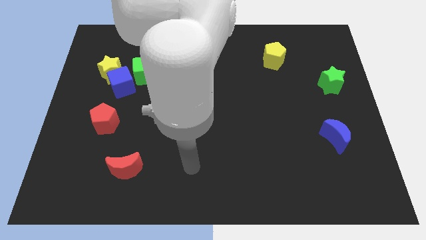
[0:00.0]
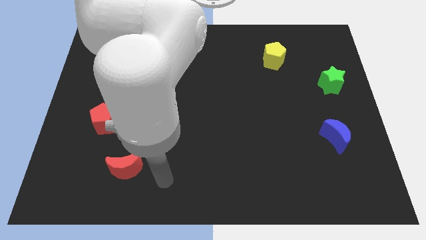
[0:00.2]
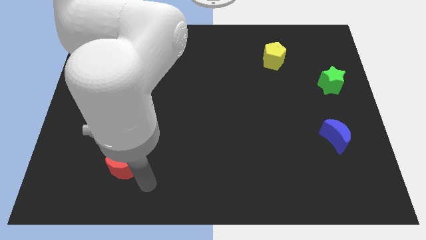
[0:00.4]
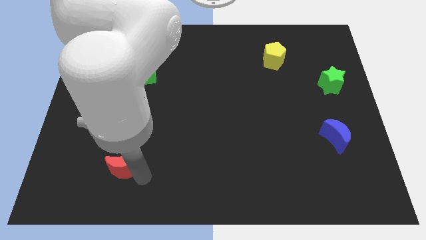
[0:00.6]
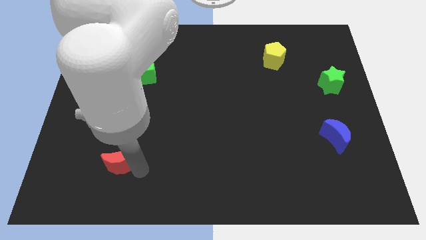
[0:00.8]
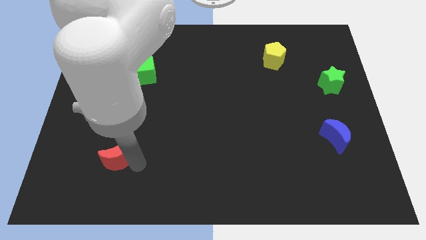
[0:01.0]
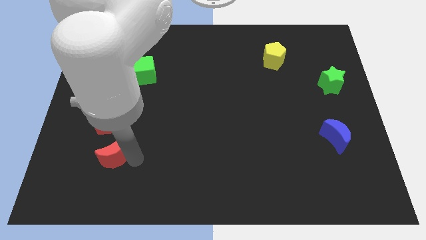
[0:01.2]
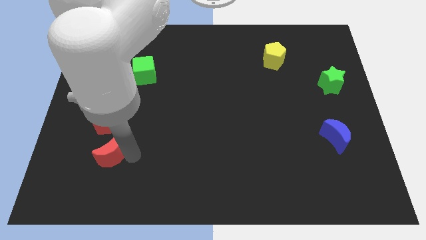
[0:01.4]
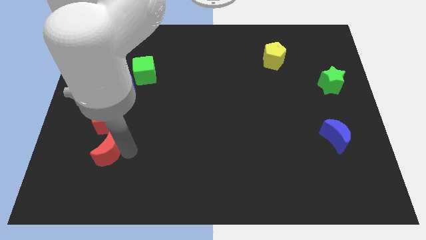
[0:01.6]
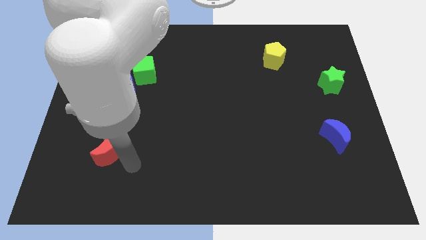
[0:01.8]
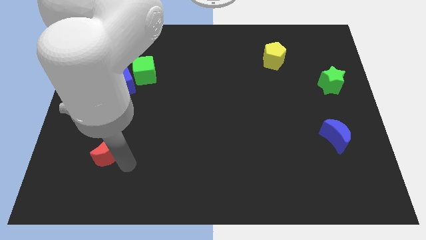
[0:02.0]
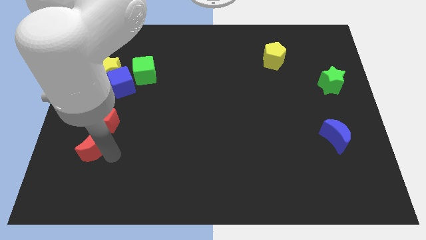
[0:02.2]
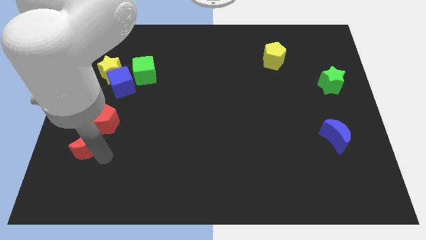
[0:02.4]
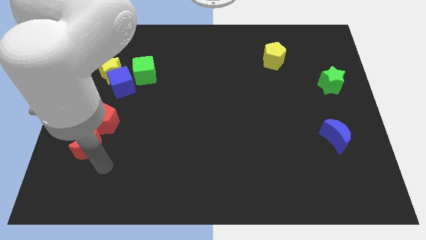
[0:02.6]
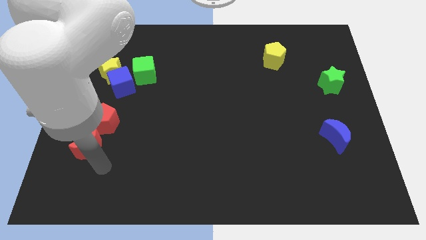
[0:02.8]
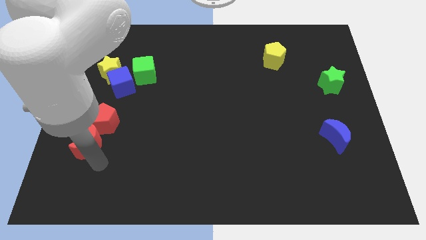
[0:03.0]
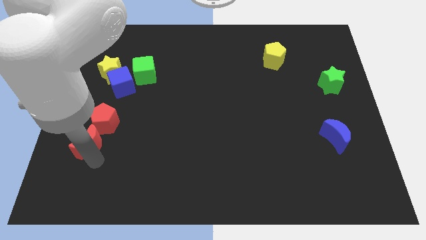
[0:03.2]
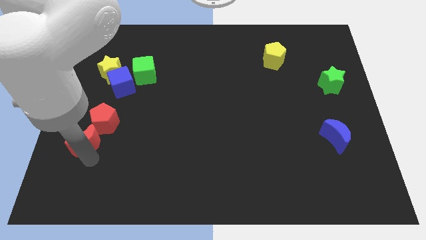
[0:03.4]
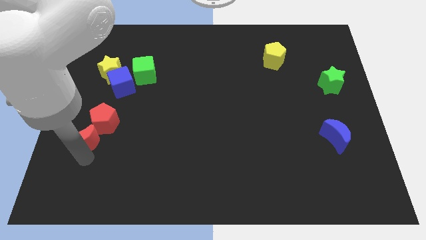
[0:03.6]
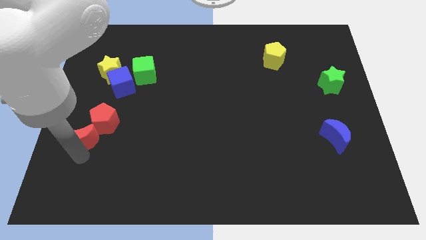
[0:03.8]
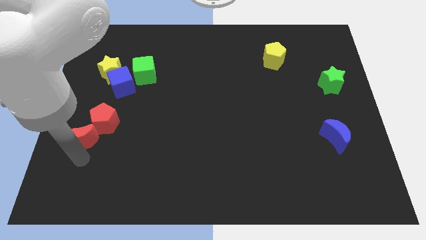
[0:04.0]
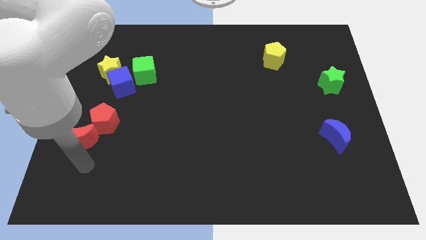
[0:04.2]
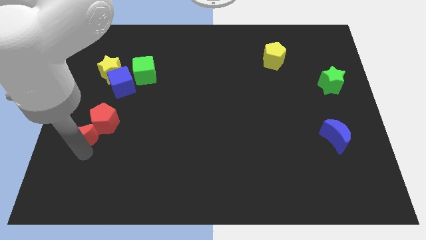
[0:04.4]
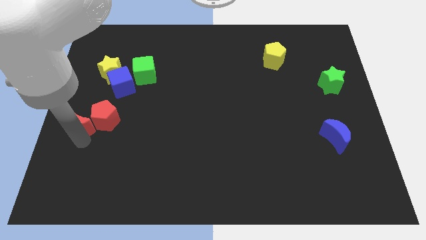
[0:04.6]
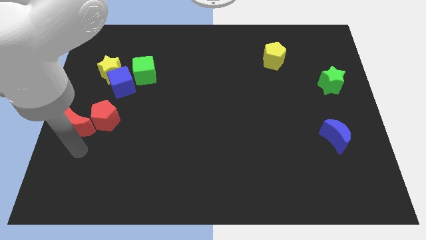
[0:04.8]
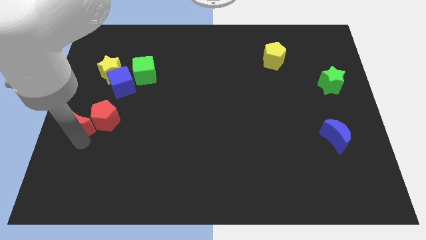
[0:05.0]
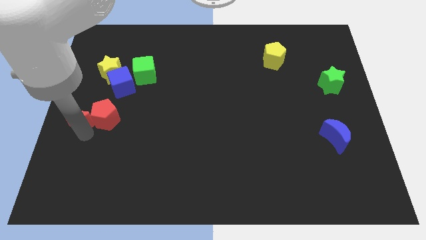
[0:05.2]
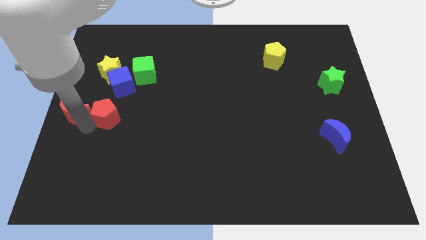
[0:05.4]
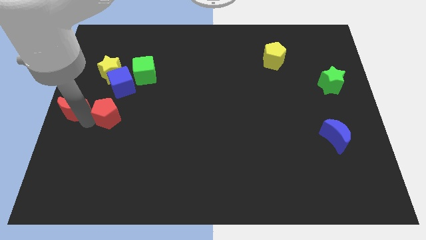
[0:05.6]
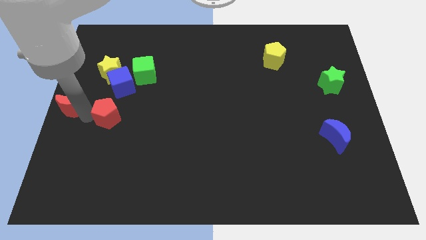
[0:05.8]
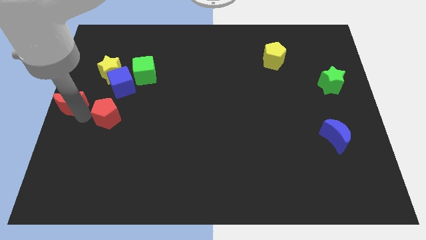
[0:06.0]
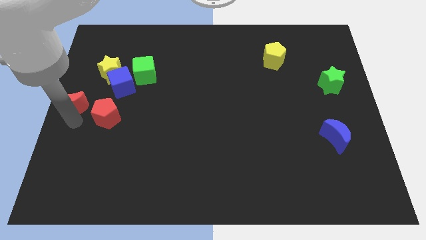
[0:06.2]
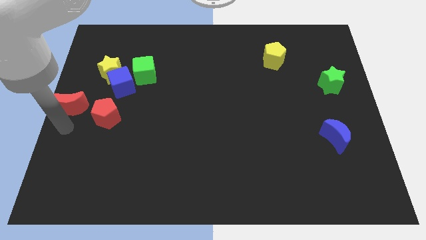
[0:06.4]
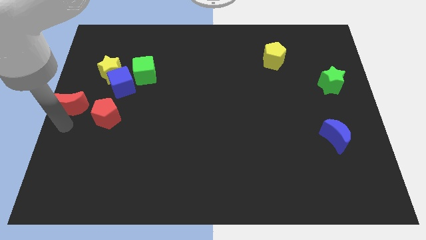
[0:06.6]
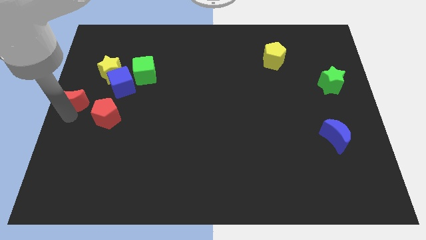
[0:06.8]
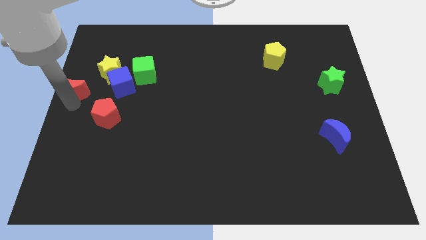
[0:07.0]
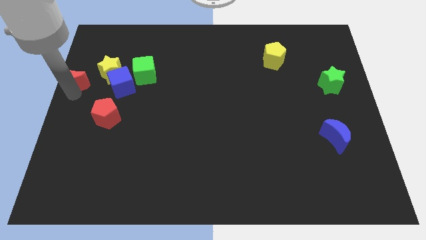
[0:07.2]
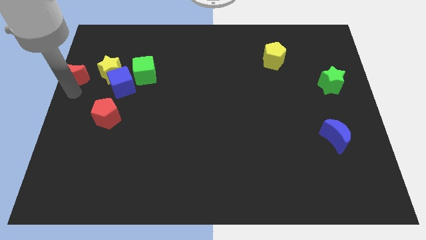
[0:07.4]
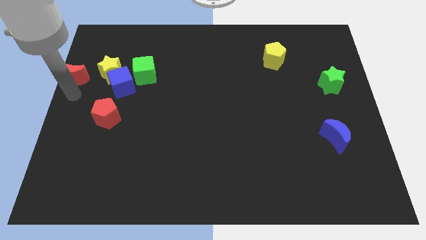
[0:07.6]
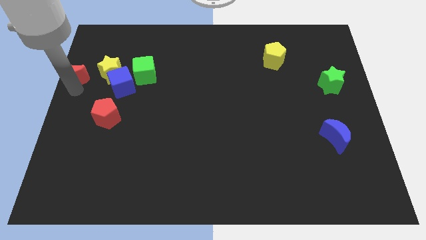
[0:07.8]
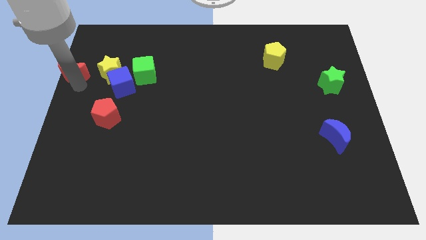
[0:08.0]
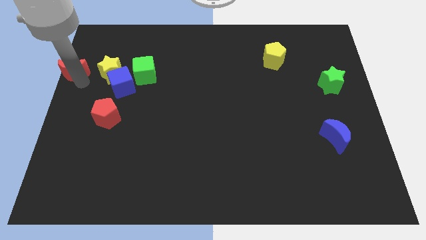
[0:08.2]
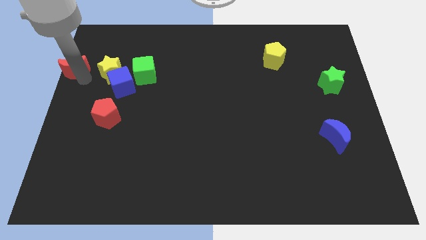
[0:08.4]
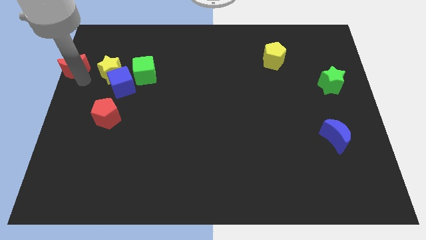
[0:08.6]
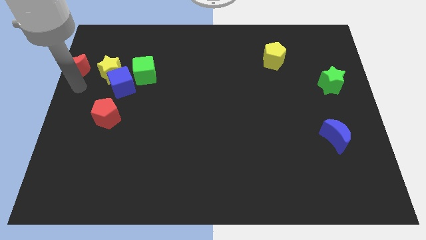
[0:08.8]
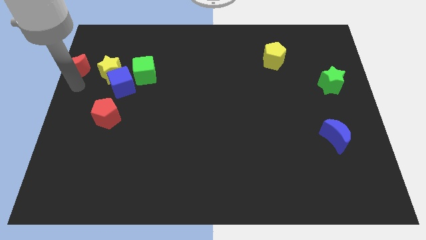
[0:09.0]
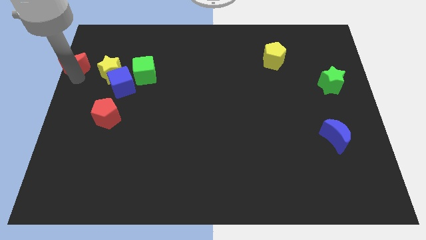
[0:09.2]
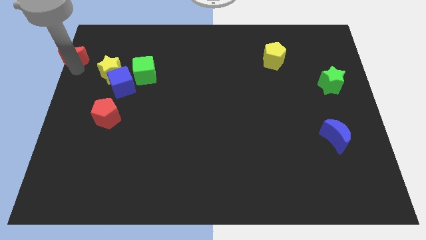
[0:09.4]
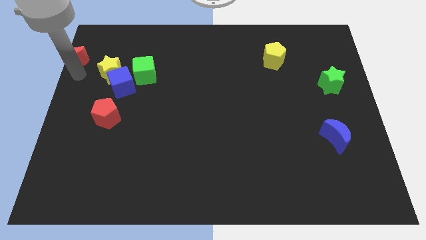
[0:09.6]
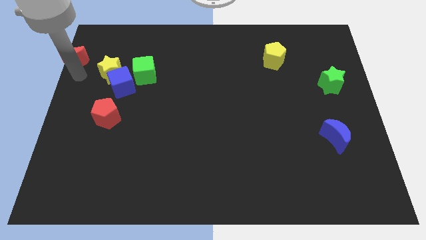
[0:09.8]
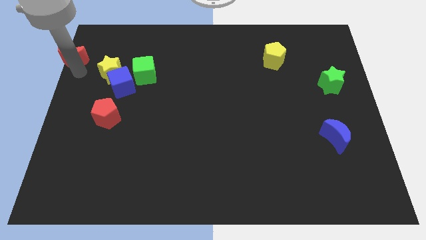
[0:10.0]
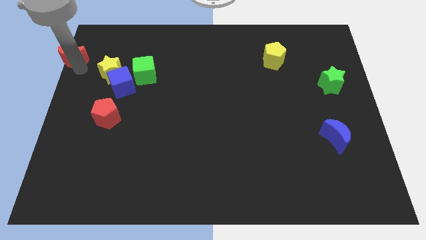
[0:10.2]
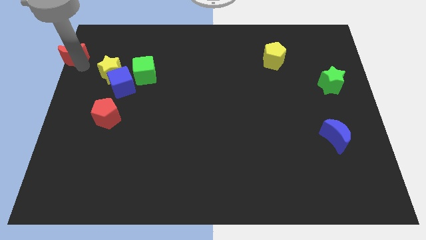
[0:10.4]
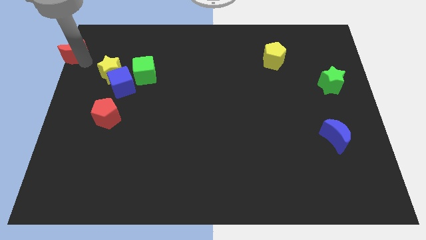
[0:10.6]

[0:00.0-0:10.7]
slide the red moon to the top left

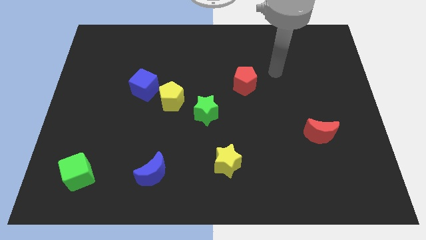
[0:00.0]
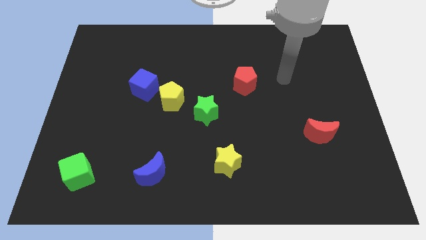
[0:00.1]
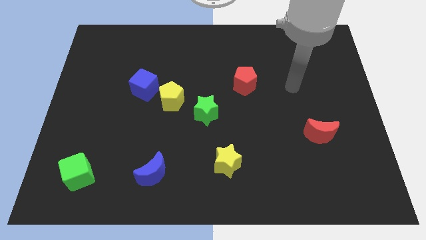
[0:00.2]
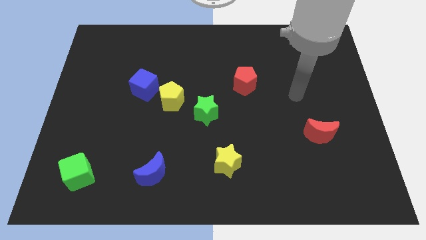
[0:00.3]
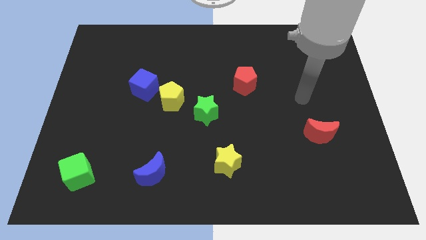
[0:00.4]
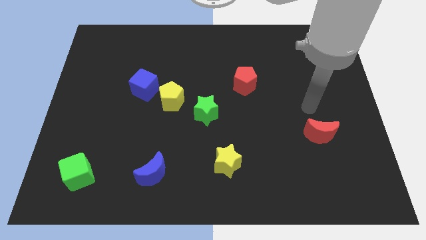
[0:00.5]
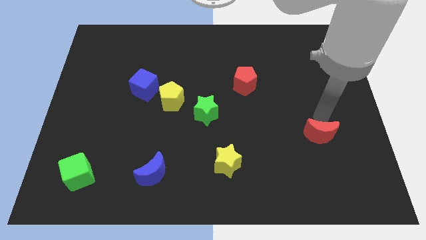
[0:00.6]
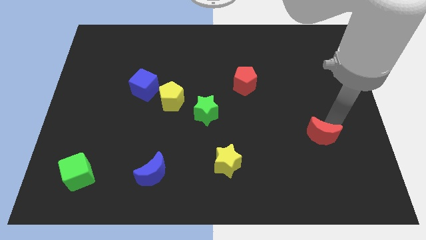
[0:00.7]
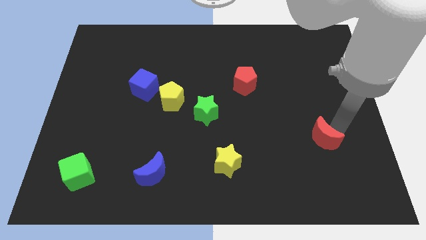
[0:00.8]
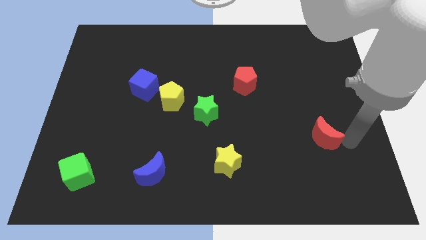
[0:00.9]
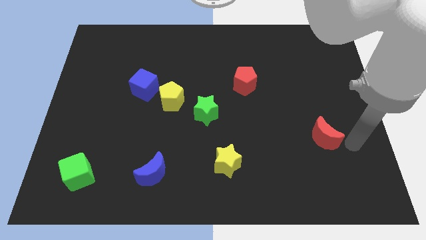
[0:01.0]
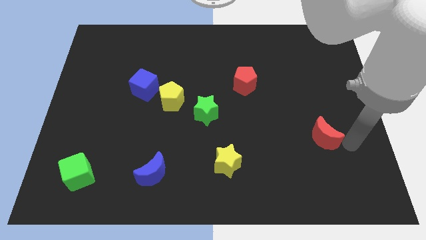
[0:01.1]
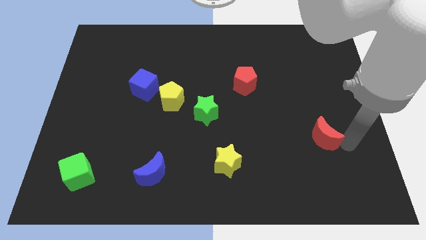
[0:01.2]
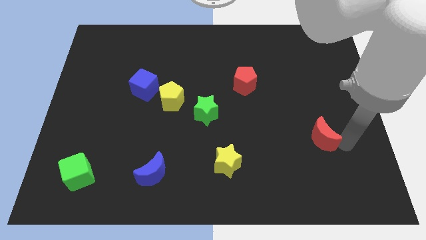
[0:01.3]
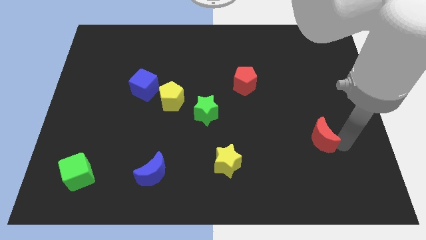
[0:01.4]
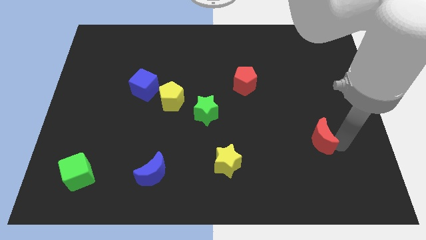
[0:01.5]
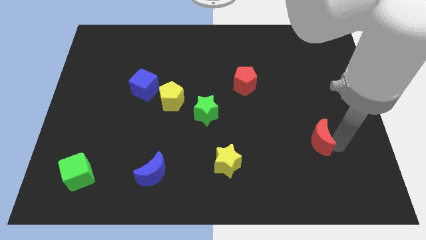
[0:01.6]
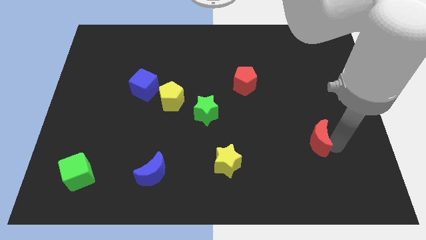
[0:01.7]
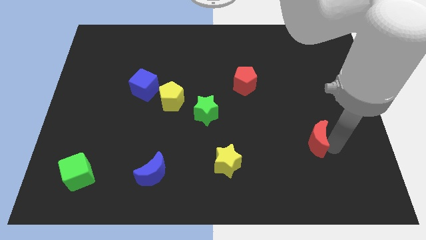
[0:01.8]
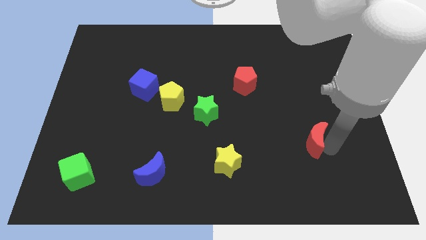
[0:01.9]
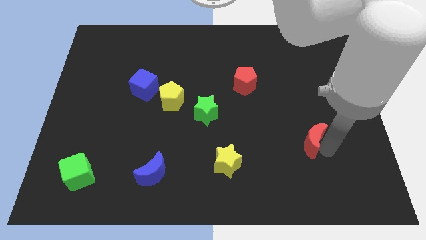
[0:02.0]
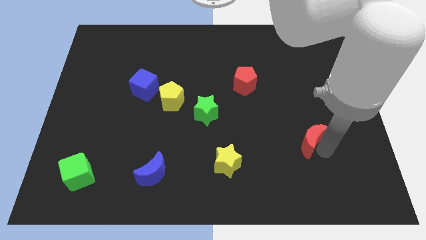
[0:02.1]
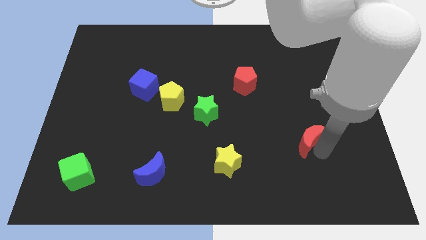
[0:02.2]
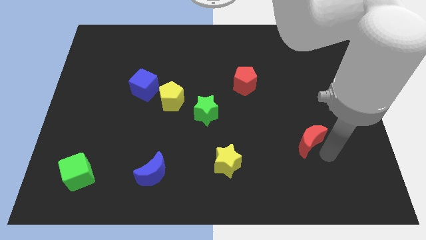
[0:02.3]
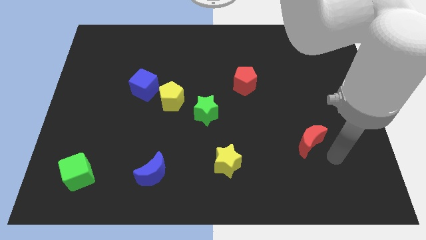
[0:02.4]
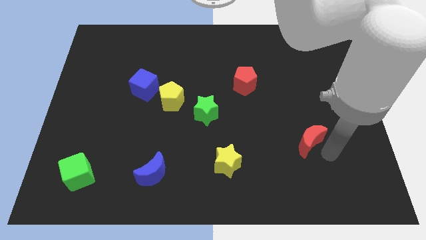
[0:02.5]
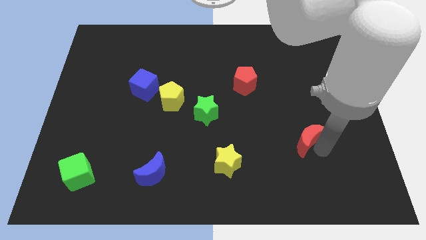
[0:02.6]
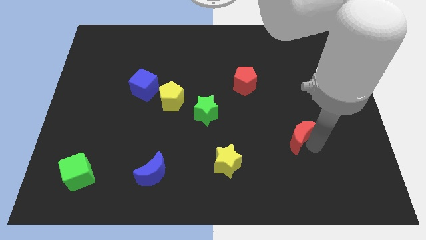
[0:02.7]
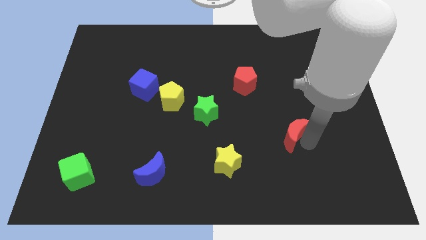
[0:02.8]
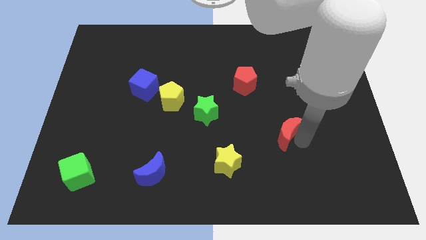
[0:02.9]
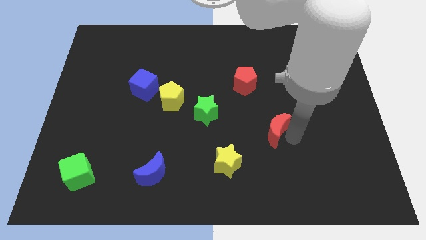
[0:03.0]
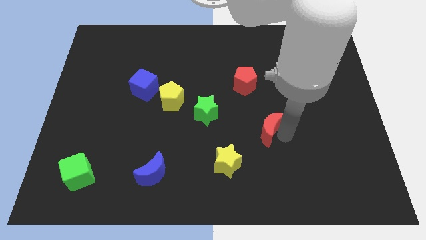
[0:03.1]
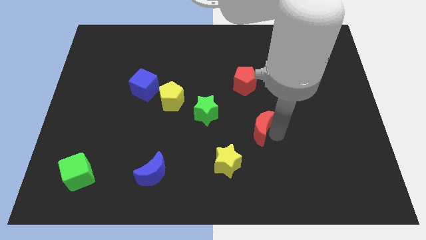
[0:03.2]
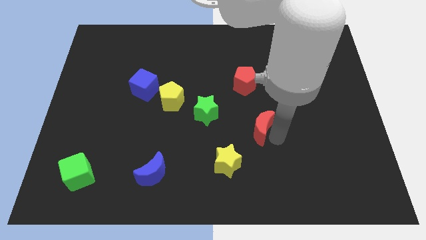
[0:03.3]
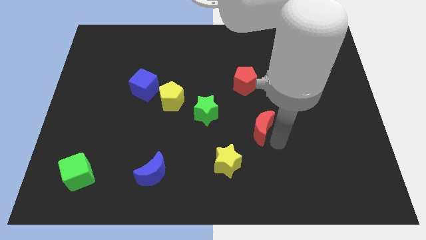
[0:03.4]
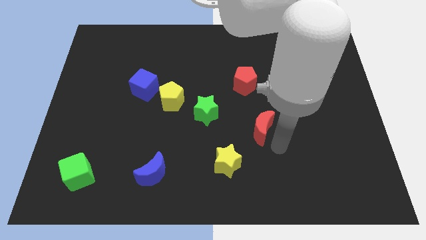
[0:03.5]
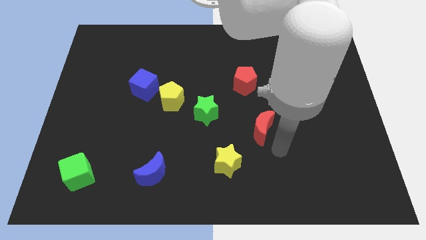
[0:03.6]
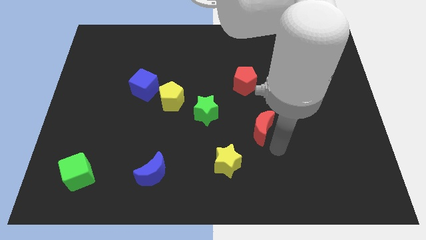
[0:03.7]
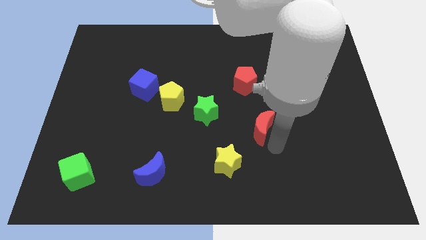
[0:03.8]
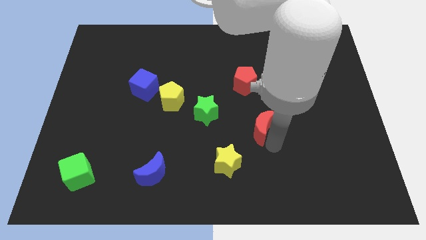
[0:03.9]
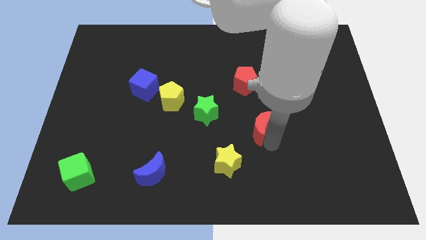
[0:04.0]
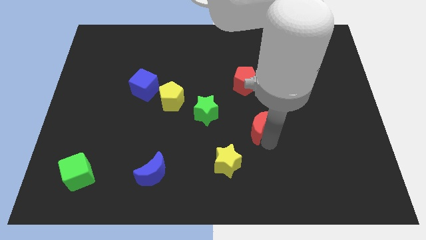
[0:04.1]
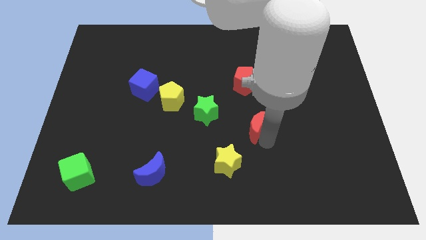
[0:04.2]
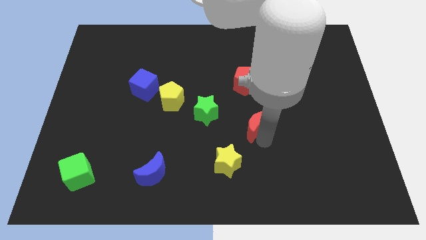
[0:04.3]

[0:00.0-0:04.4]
move the red moon to the middle of the board
